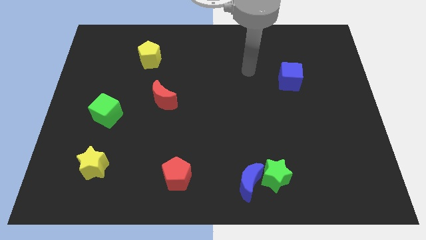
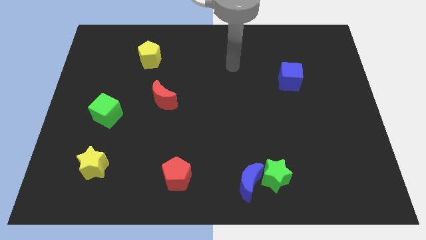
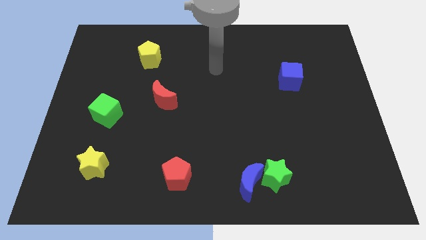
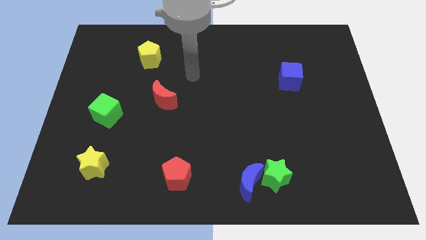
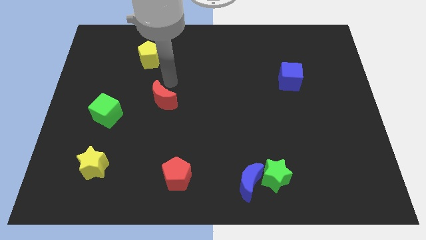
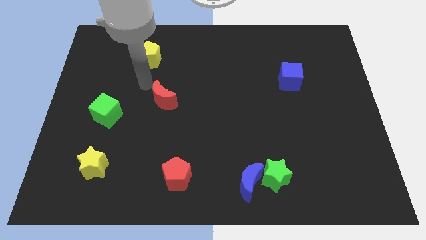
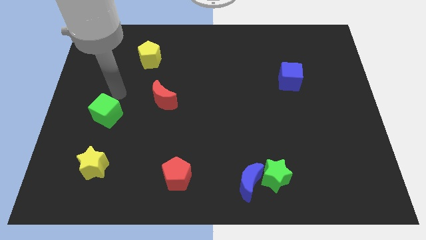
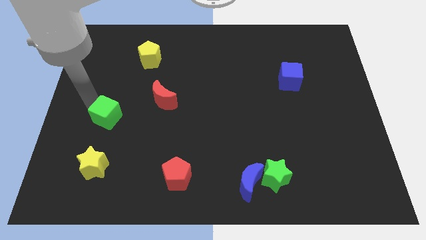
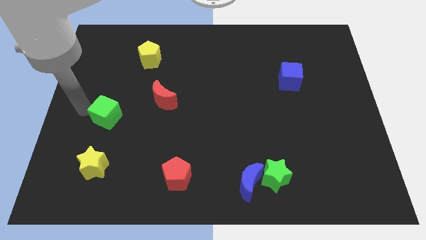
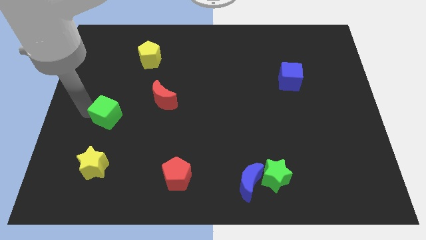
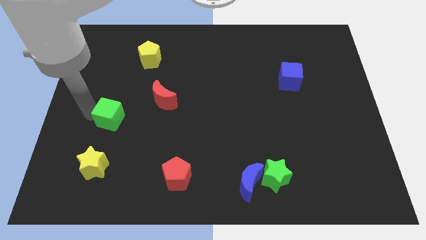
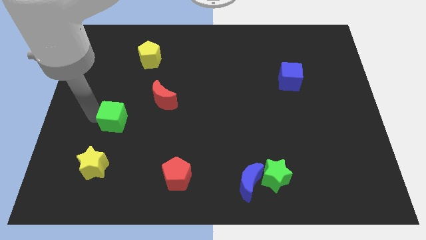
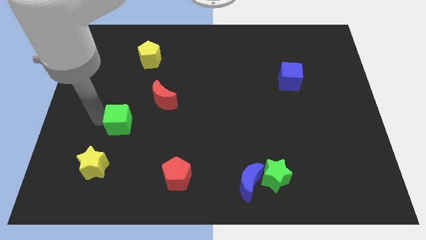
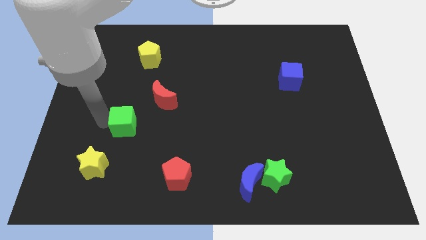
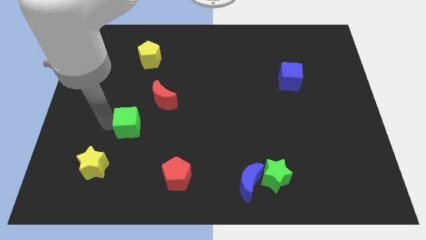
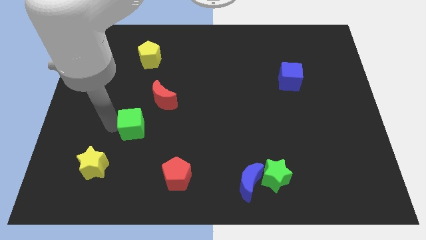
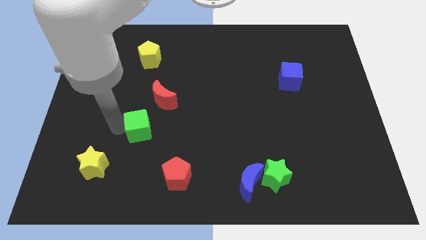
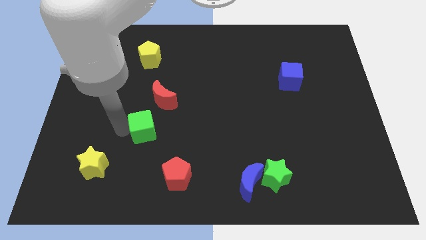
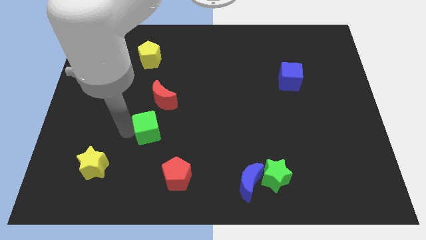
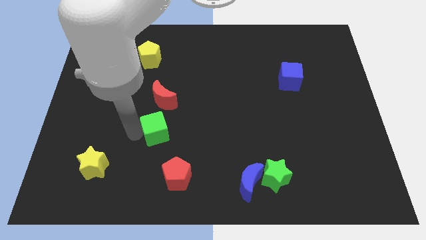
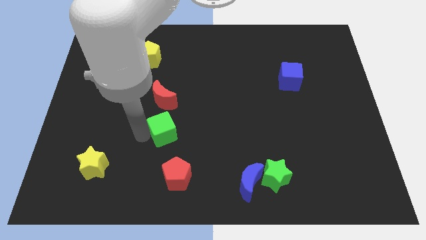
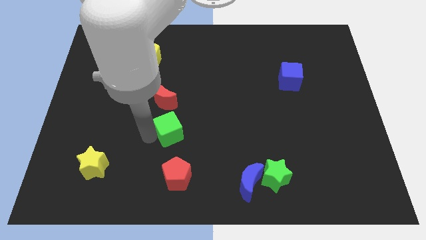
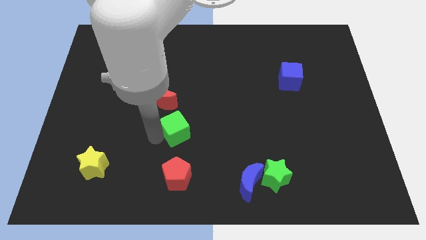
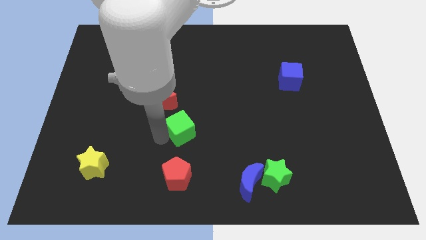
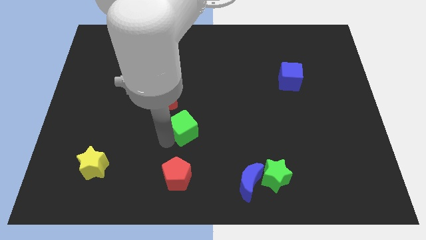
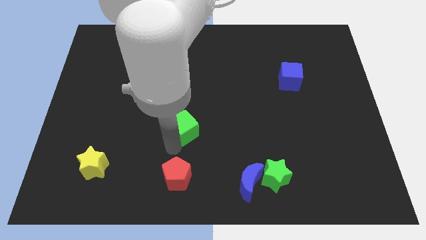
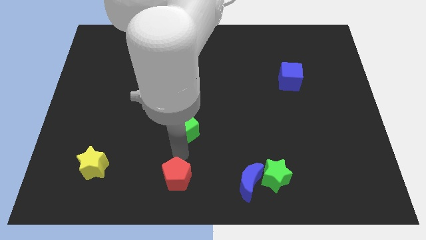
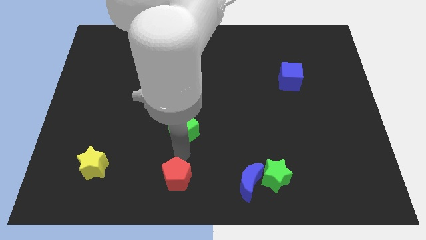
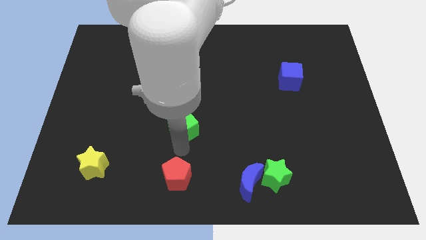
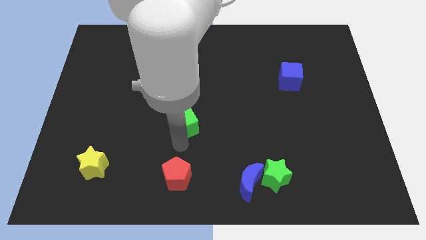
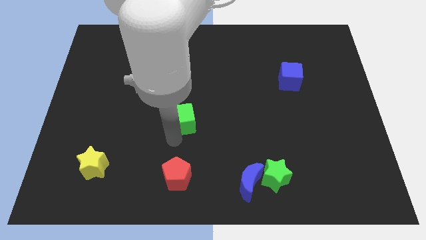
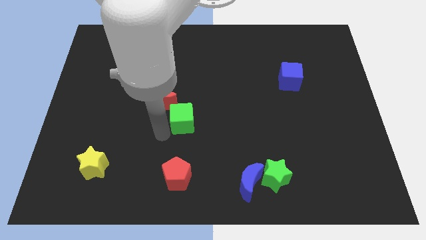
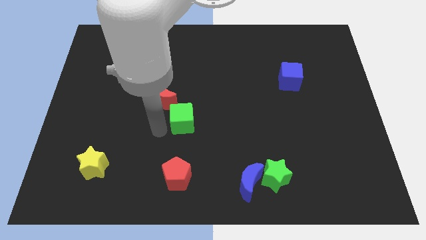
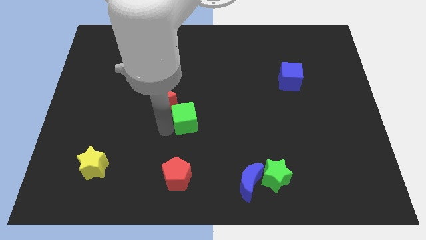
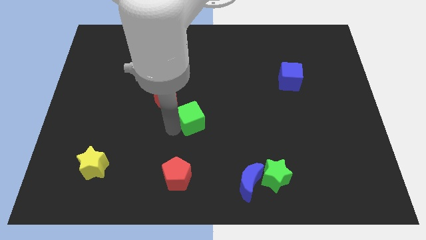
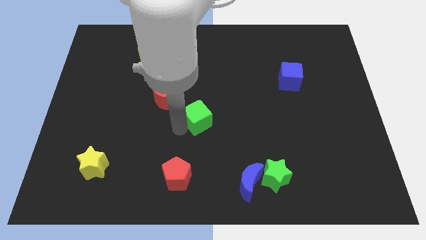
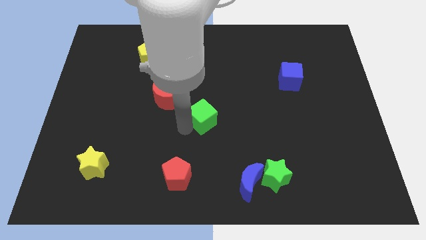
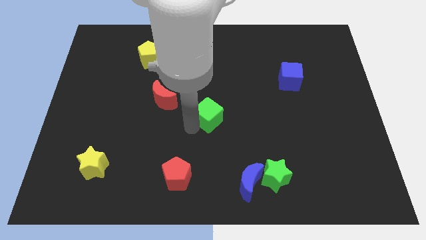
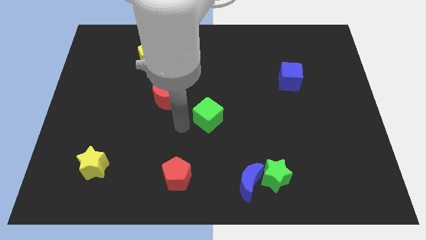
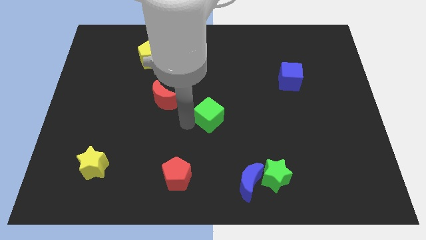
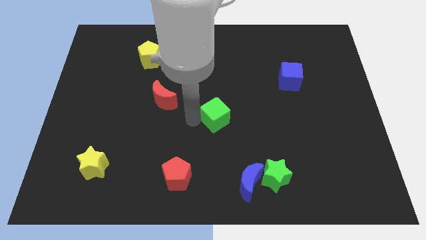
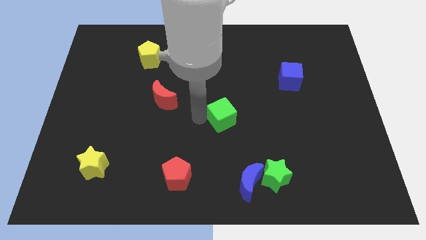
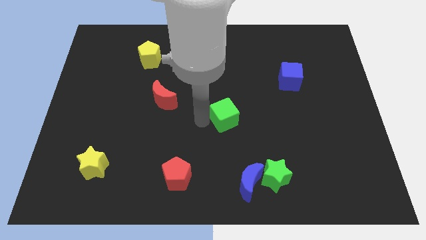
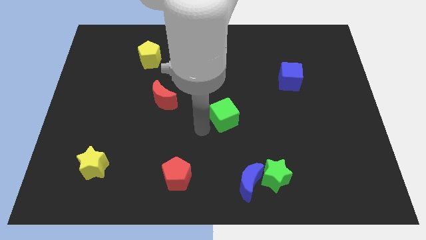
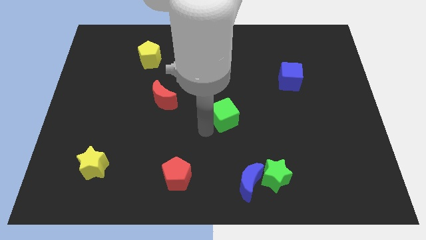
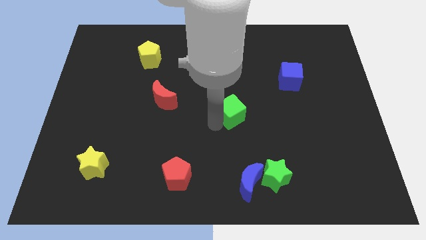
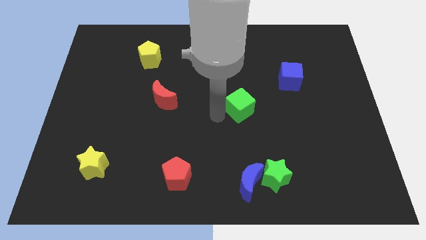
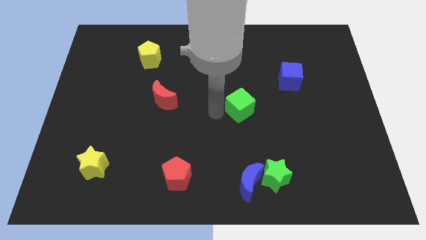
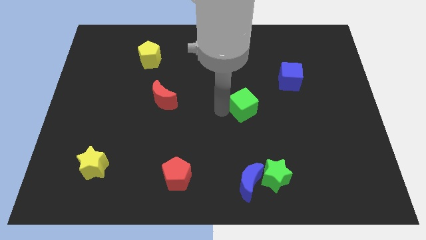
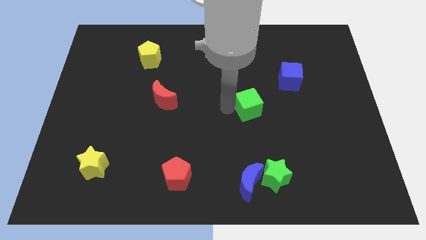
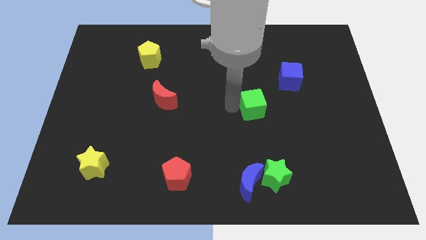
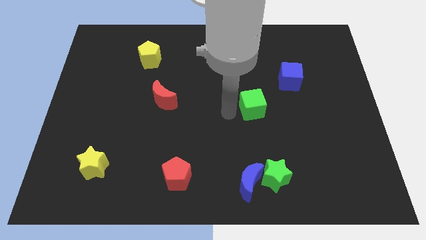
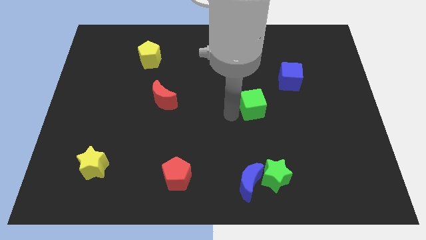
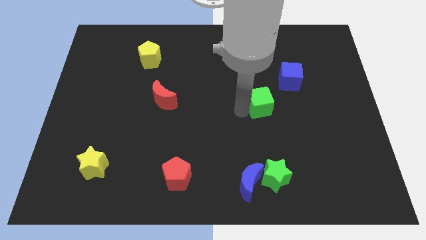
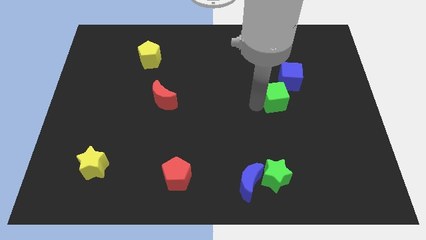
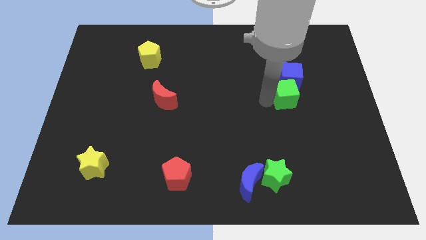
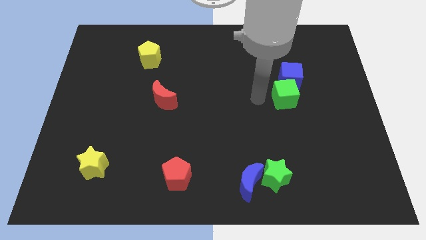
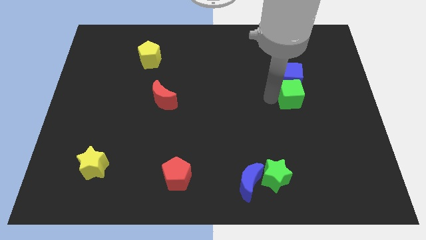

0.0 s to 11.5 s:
put the green cube diagonally down and to the right of the blue cube

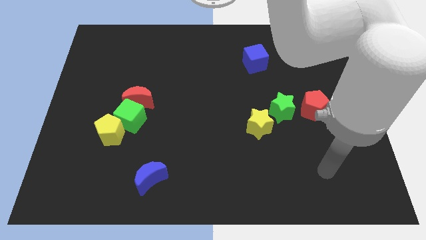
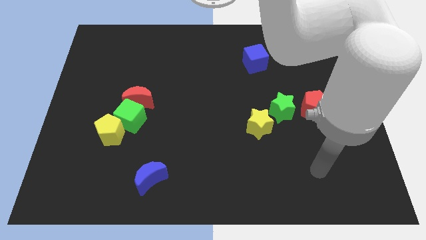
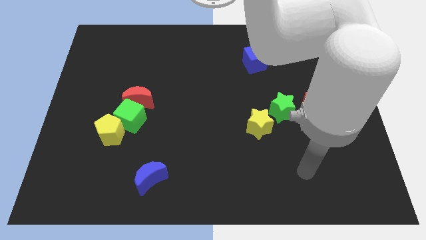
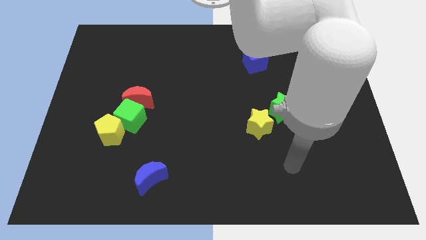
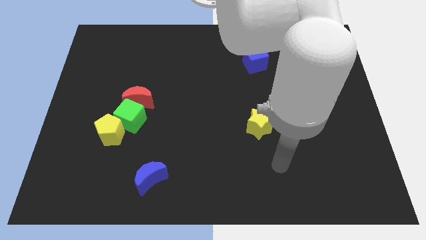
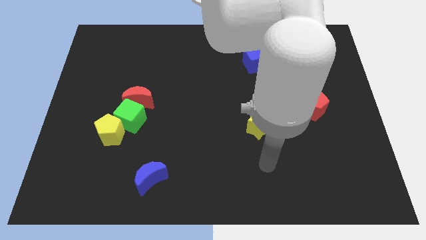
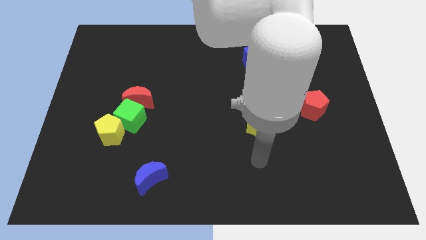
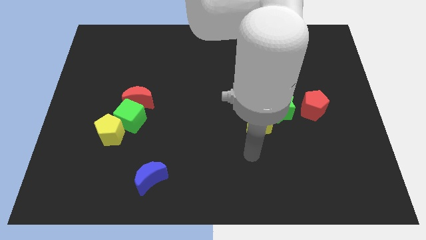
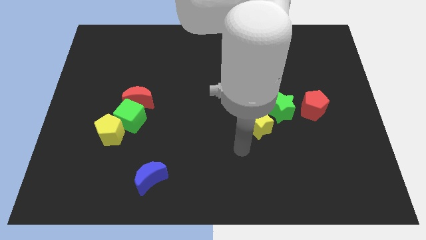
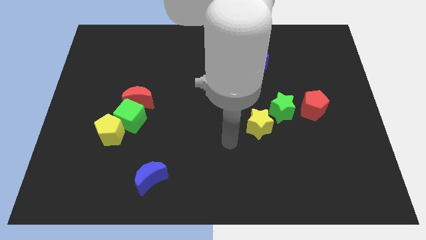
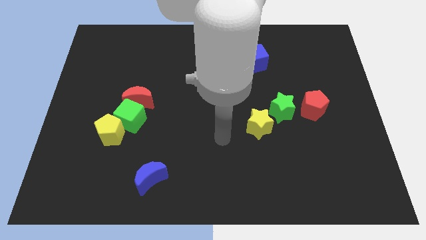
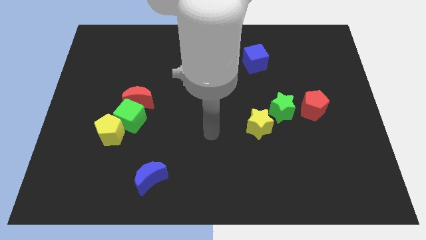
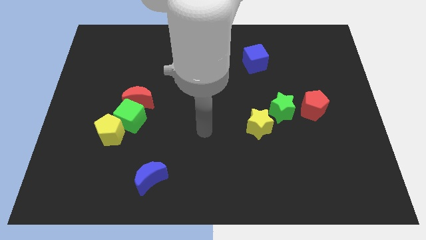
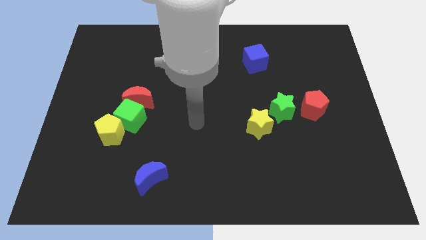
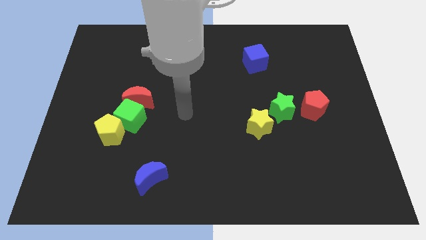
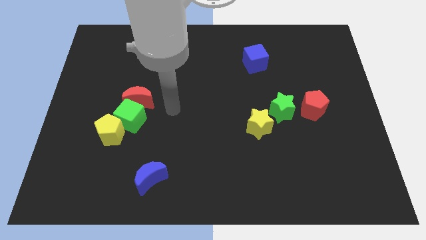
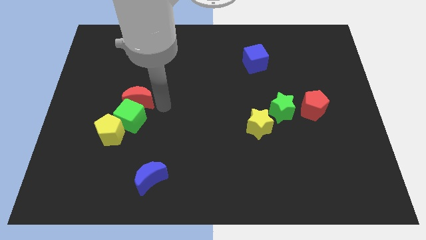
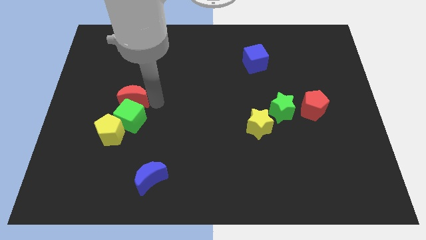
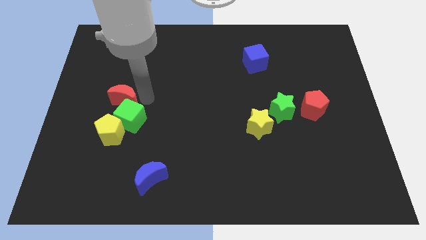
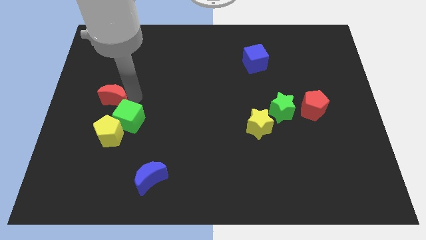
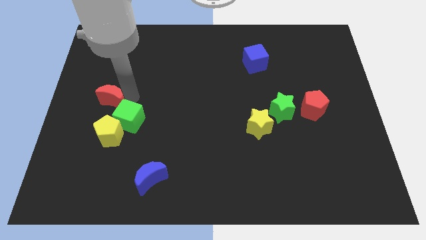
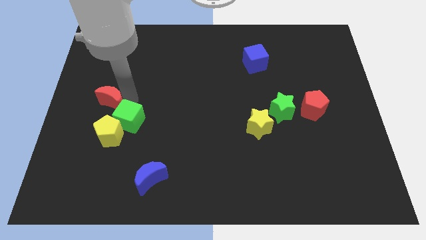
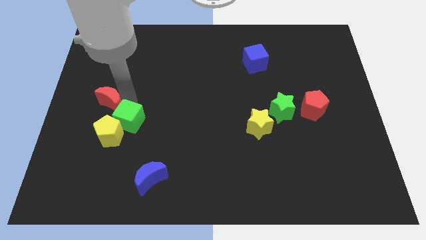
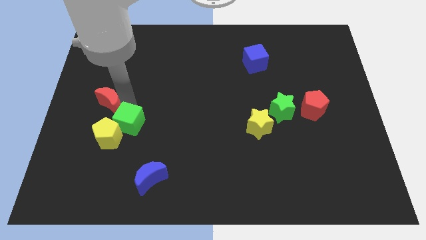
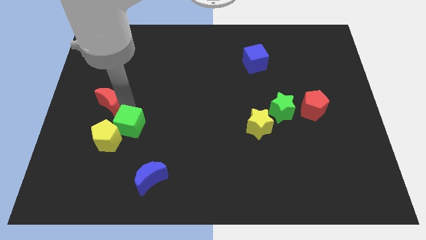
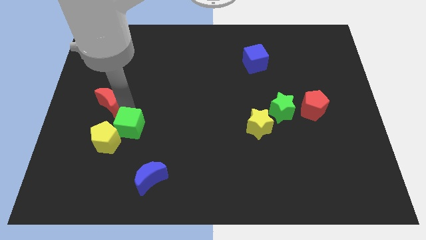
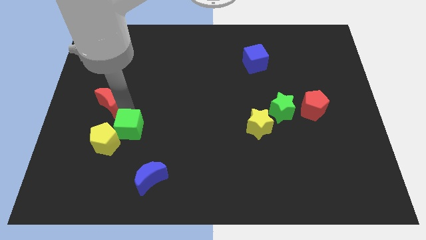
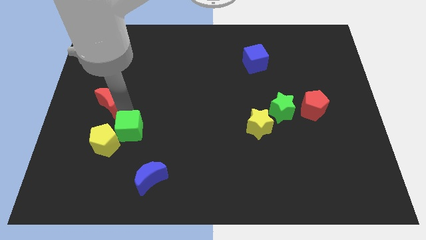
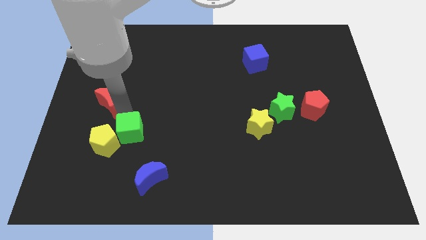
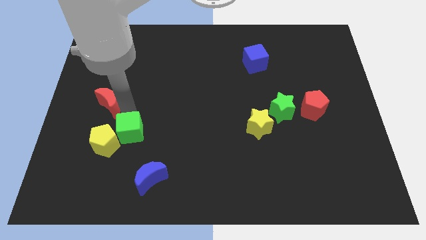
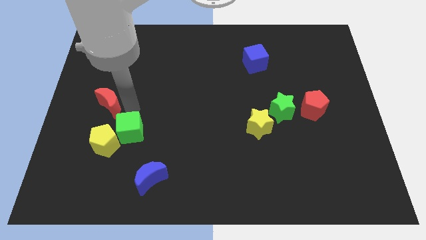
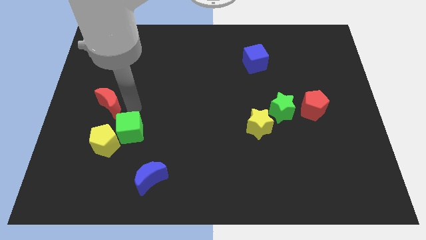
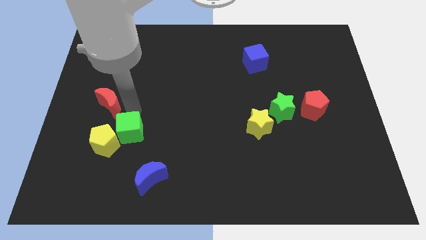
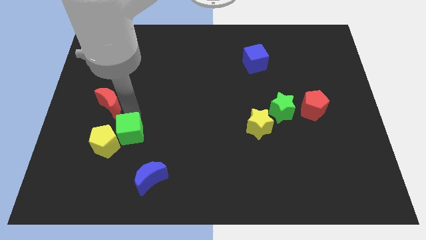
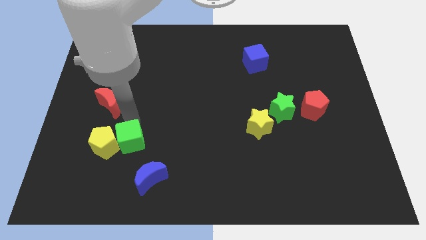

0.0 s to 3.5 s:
put the green cube diagonally up and to the left of the blue moon
